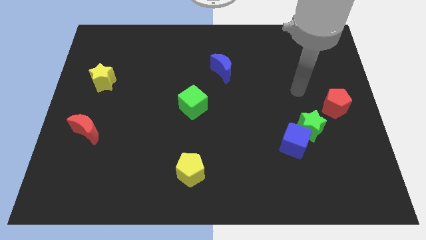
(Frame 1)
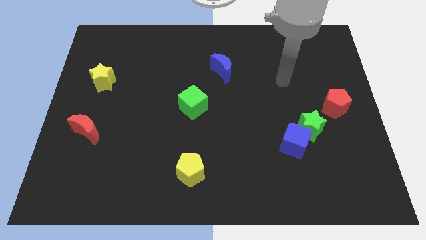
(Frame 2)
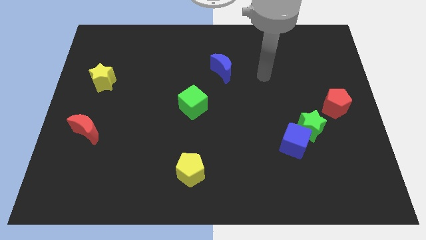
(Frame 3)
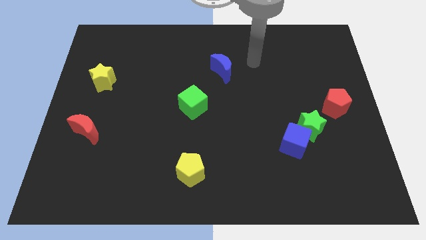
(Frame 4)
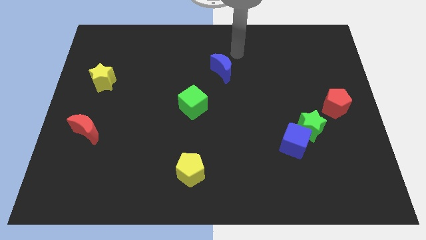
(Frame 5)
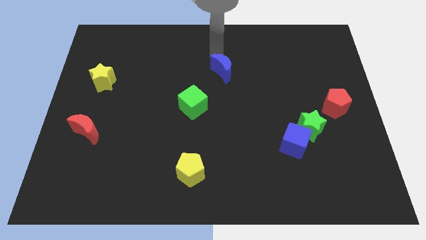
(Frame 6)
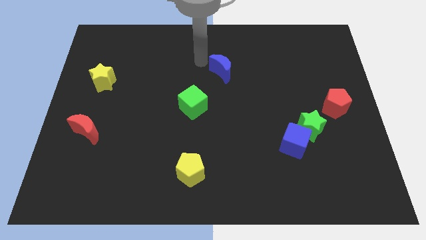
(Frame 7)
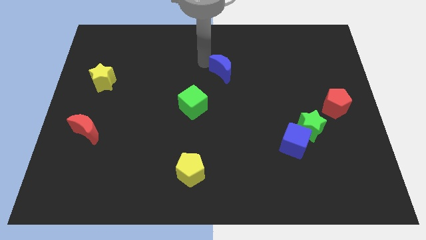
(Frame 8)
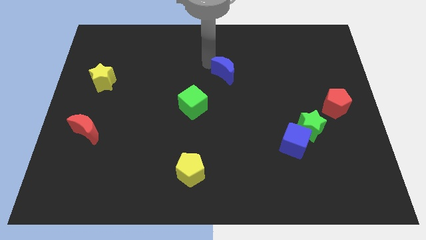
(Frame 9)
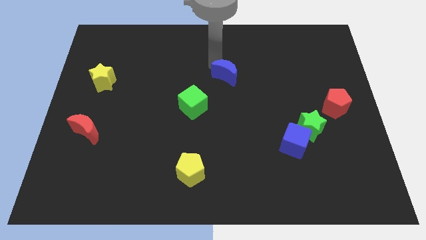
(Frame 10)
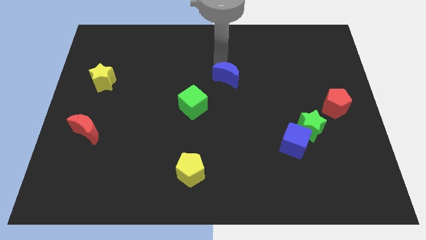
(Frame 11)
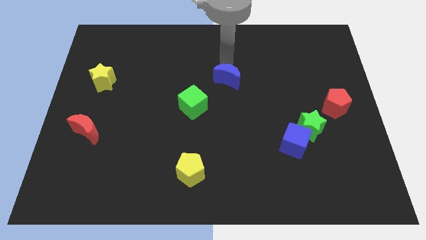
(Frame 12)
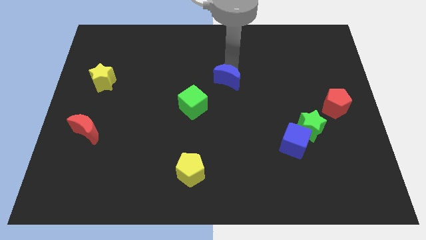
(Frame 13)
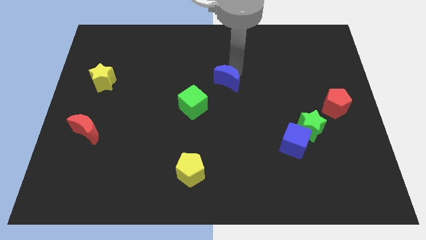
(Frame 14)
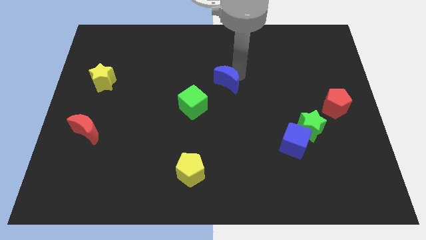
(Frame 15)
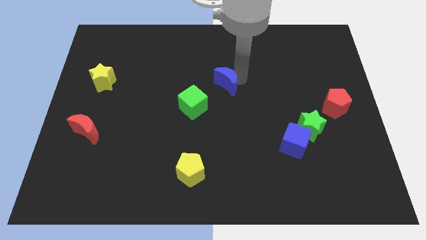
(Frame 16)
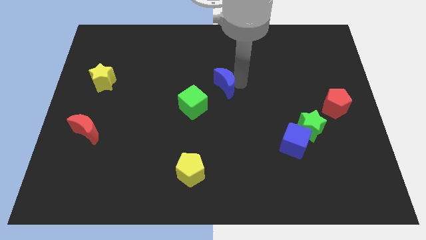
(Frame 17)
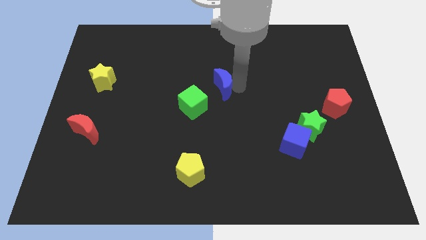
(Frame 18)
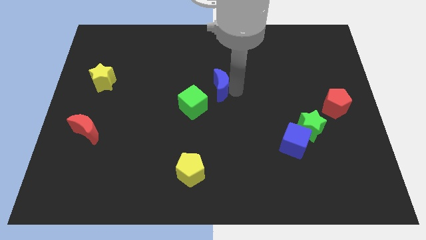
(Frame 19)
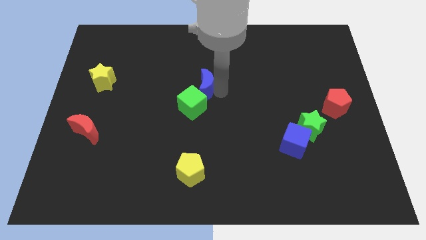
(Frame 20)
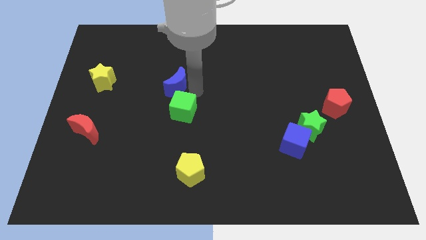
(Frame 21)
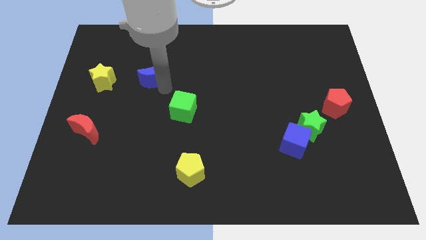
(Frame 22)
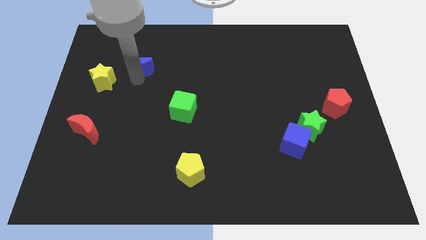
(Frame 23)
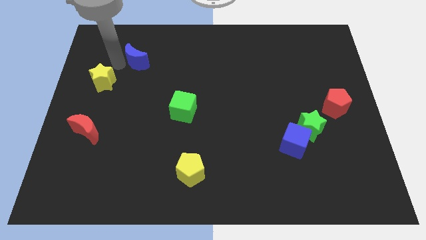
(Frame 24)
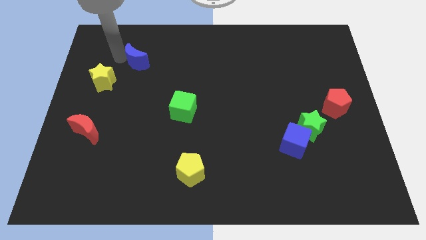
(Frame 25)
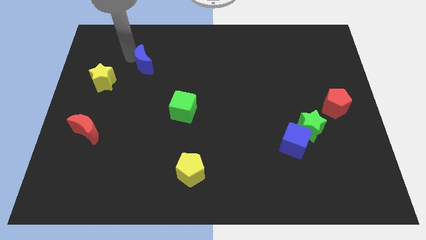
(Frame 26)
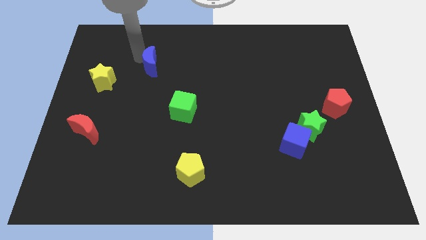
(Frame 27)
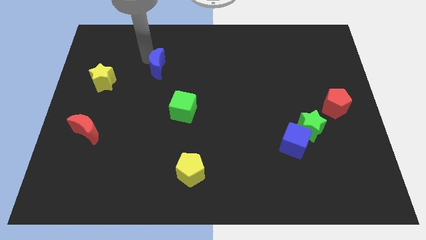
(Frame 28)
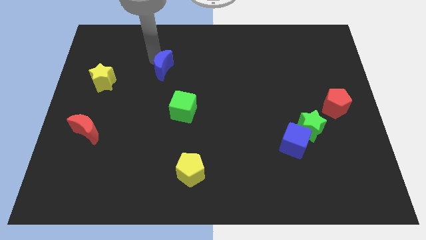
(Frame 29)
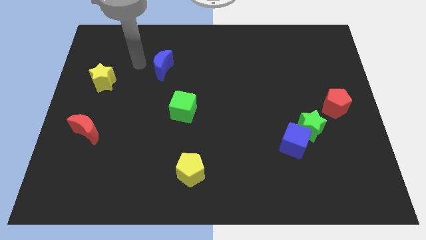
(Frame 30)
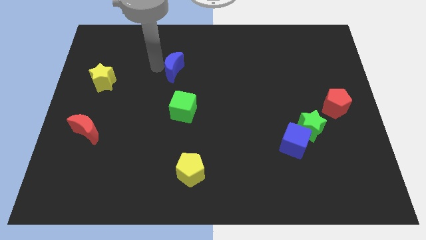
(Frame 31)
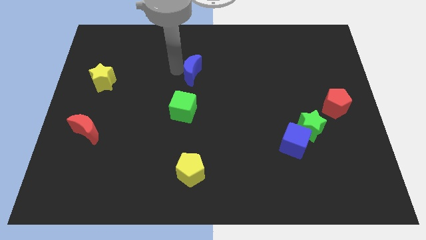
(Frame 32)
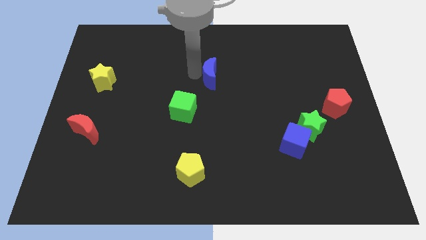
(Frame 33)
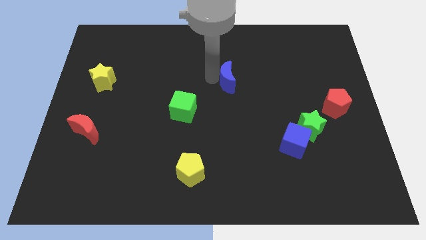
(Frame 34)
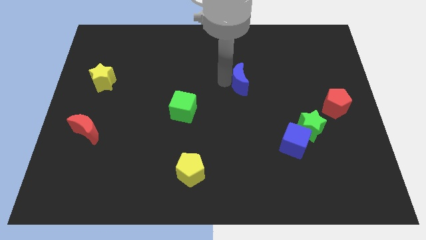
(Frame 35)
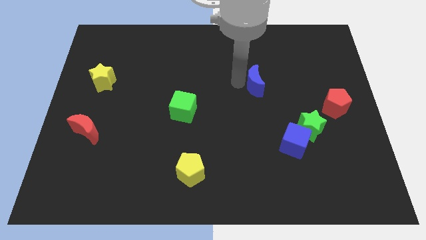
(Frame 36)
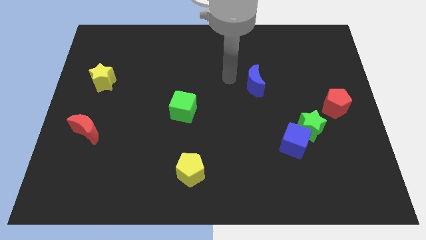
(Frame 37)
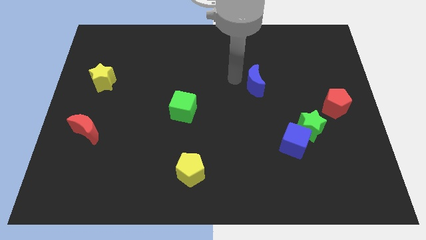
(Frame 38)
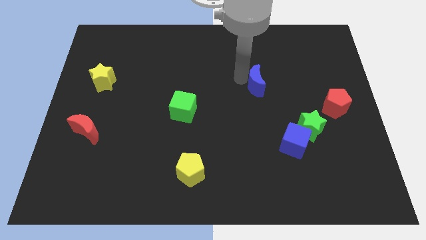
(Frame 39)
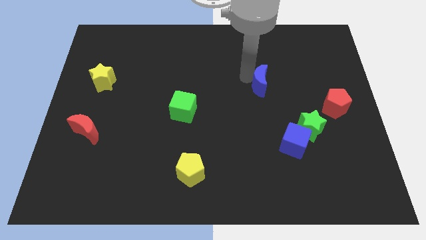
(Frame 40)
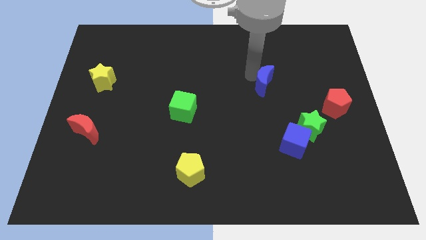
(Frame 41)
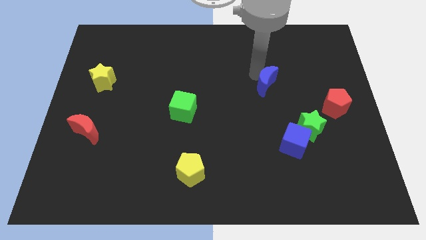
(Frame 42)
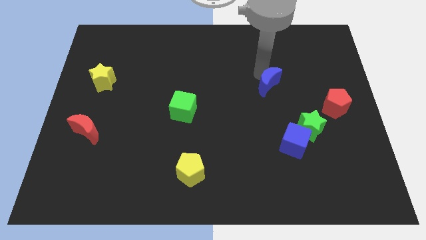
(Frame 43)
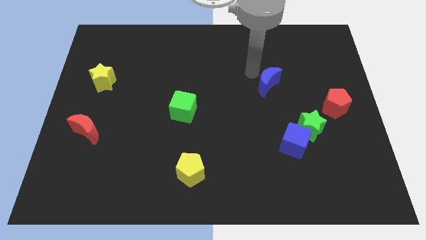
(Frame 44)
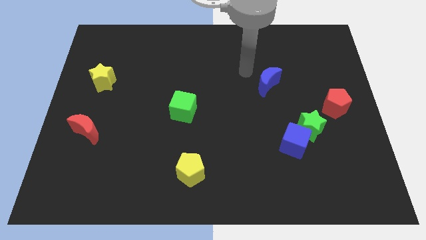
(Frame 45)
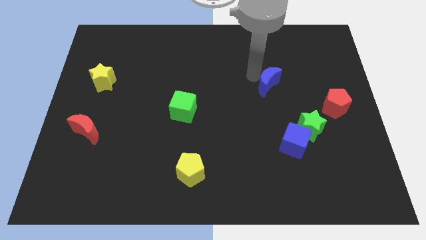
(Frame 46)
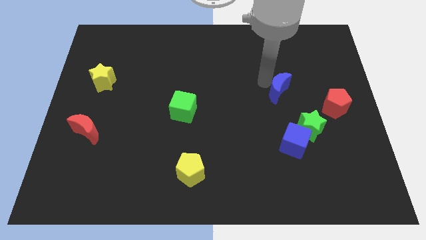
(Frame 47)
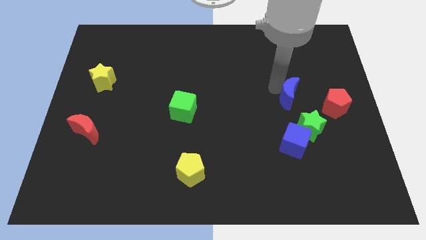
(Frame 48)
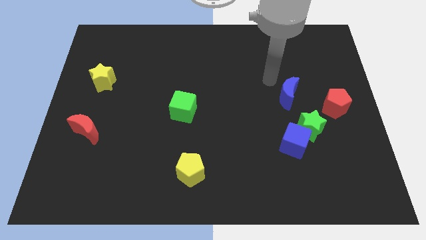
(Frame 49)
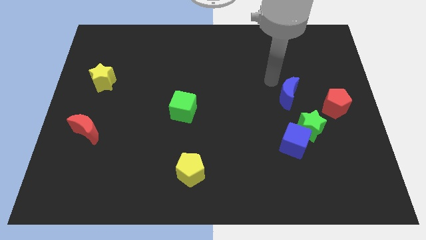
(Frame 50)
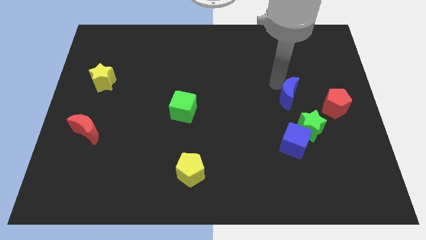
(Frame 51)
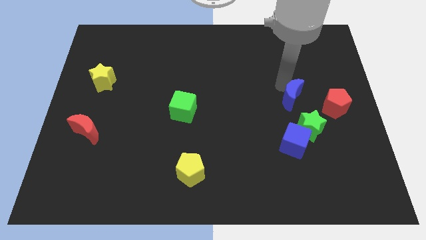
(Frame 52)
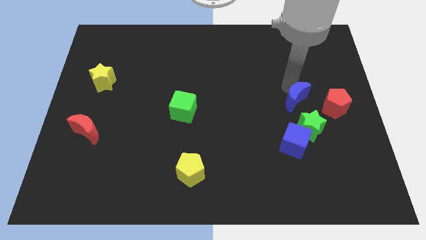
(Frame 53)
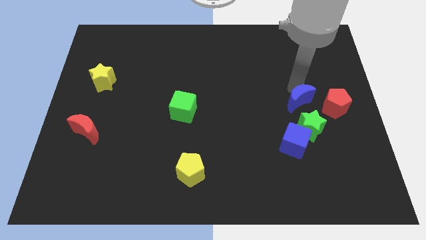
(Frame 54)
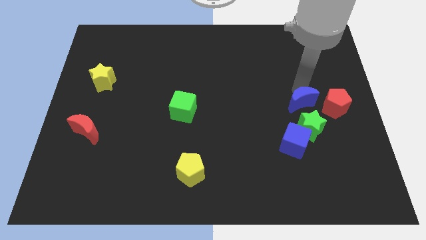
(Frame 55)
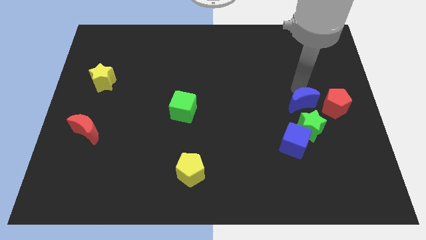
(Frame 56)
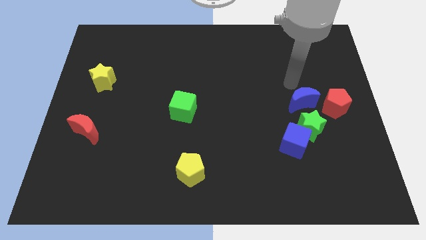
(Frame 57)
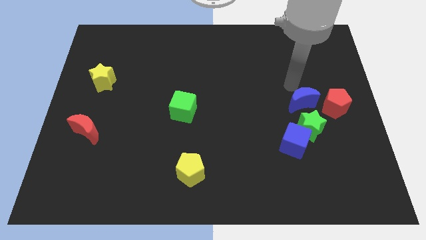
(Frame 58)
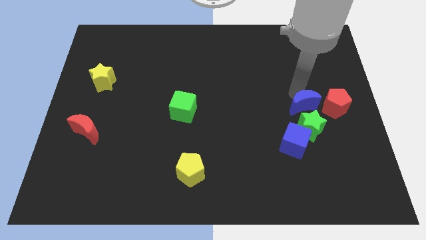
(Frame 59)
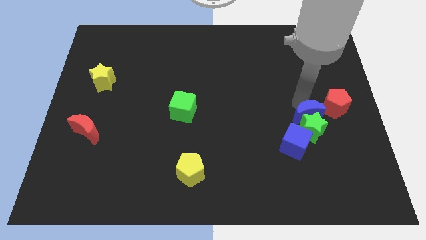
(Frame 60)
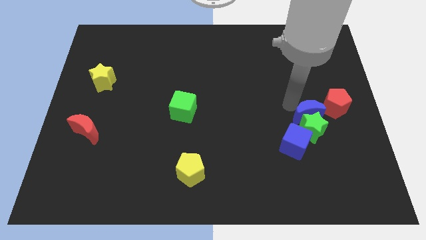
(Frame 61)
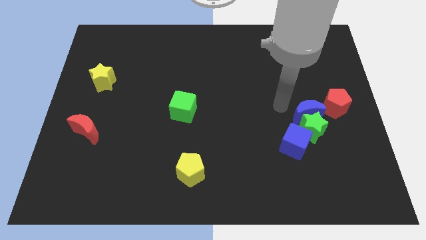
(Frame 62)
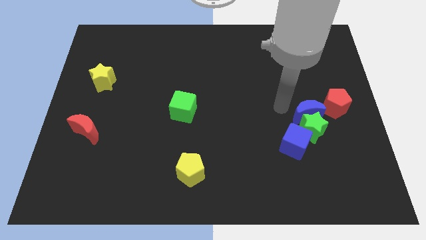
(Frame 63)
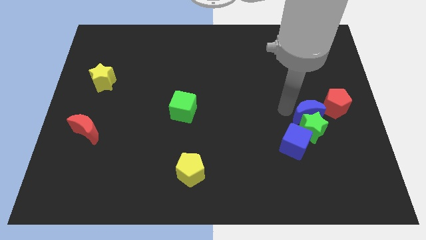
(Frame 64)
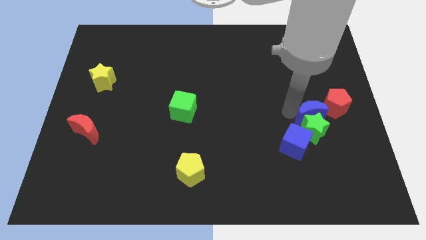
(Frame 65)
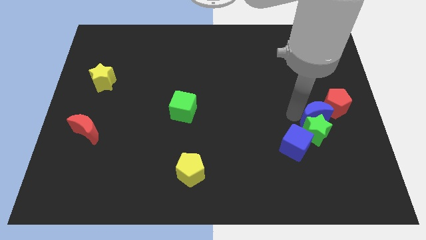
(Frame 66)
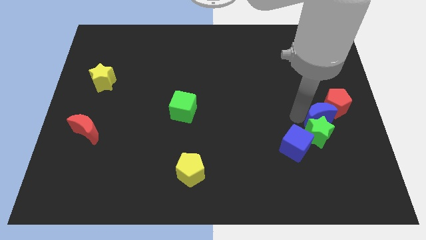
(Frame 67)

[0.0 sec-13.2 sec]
push the blue moon to the bottom of the red pentagon
